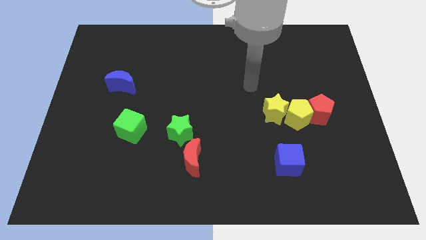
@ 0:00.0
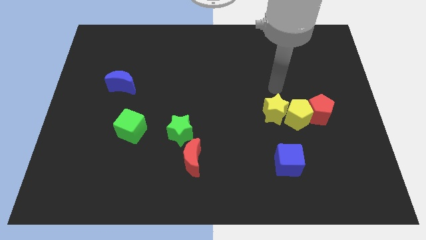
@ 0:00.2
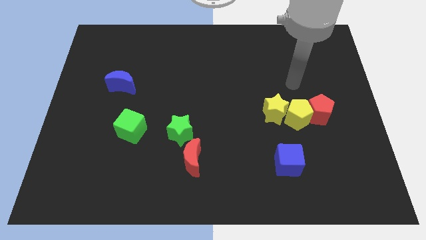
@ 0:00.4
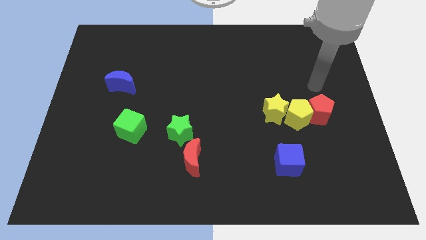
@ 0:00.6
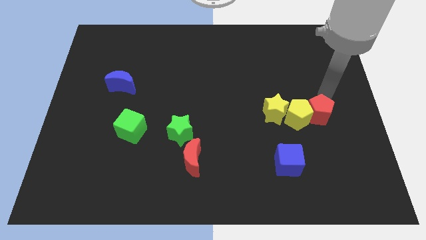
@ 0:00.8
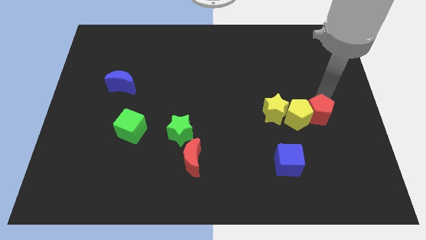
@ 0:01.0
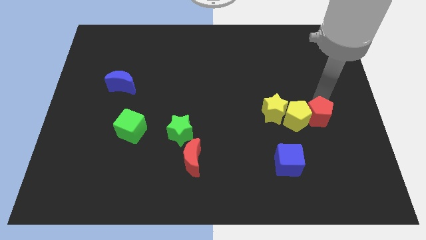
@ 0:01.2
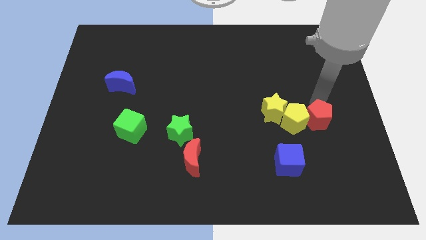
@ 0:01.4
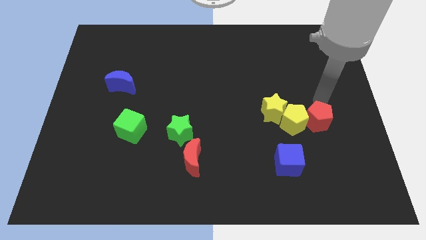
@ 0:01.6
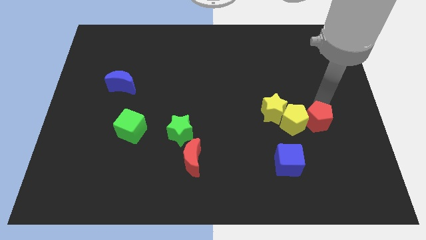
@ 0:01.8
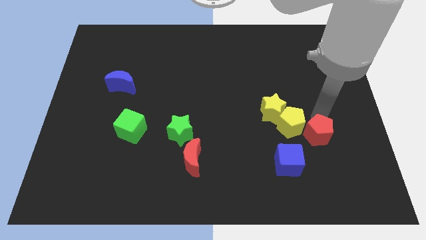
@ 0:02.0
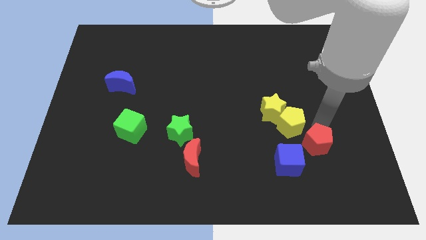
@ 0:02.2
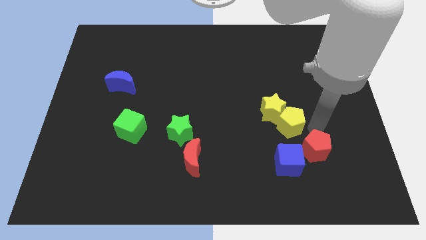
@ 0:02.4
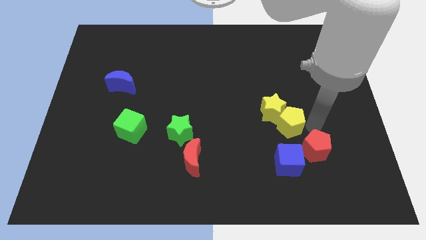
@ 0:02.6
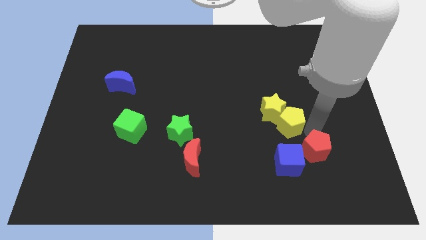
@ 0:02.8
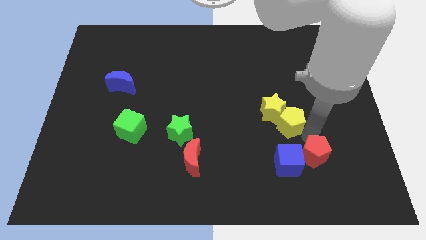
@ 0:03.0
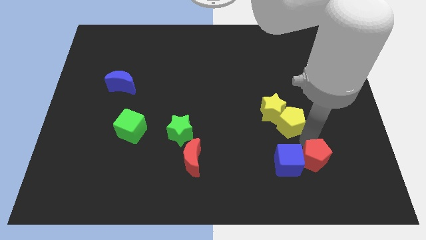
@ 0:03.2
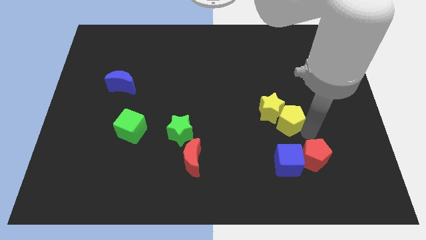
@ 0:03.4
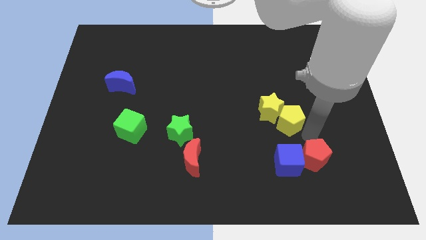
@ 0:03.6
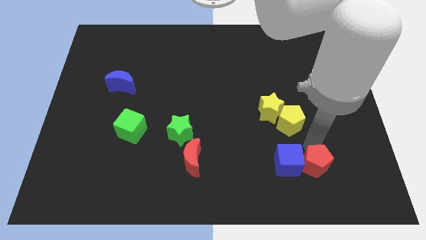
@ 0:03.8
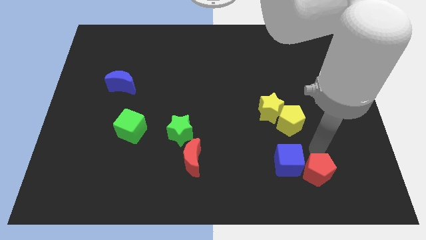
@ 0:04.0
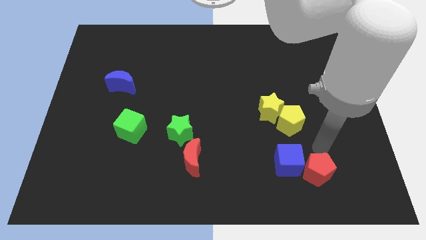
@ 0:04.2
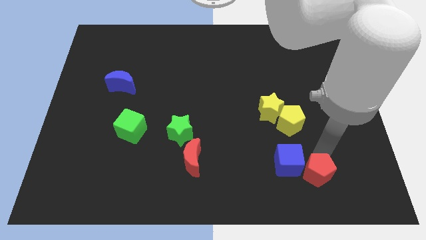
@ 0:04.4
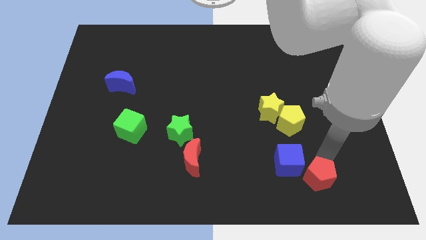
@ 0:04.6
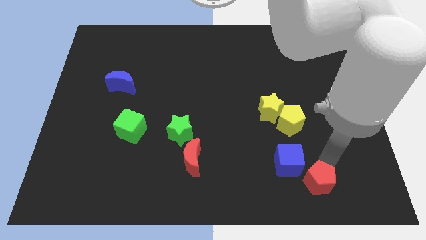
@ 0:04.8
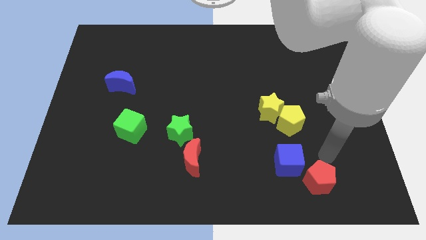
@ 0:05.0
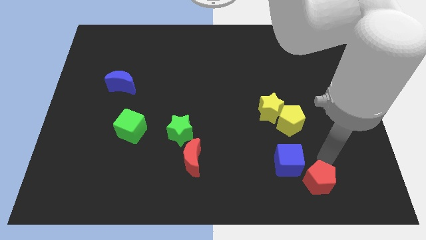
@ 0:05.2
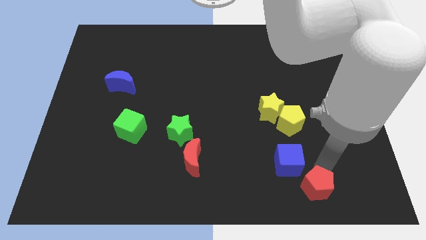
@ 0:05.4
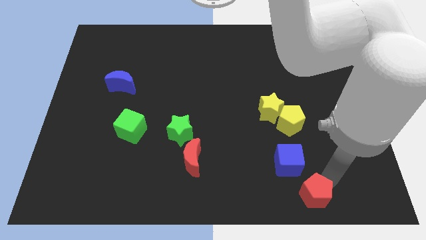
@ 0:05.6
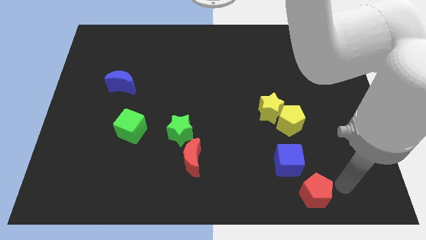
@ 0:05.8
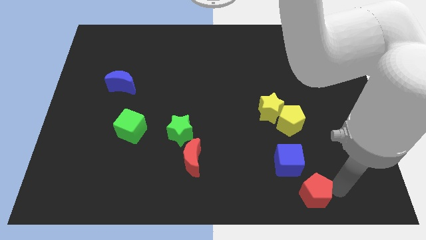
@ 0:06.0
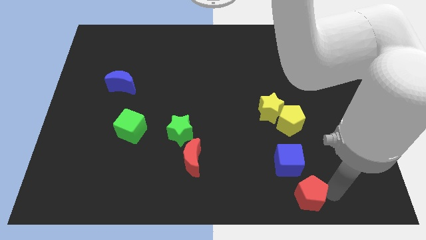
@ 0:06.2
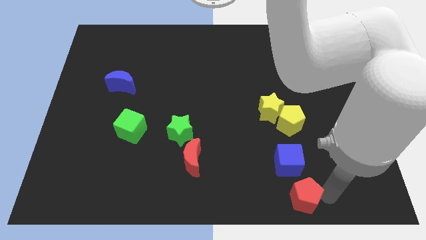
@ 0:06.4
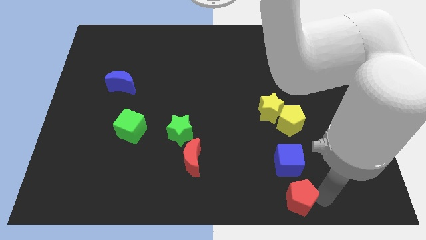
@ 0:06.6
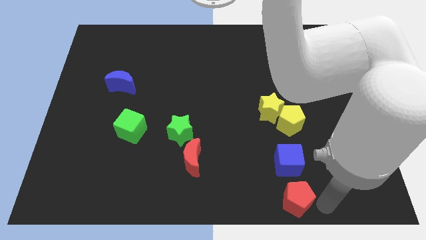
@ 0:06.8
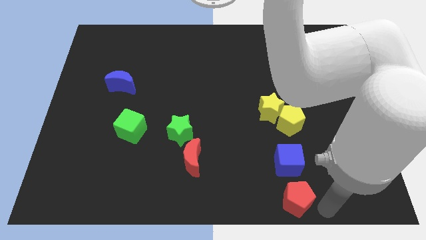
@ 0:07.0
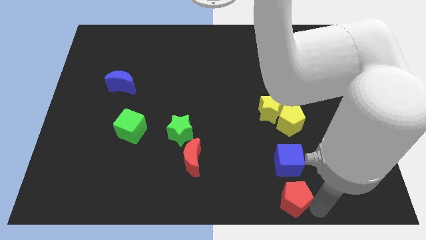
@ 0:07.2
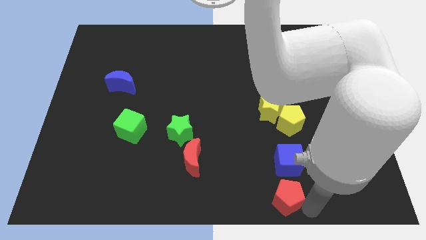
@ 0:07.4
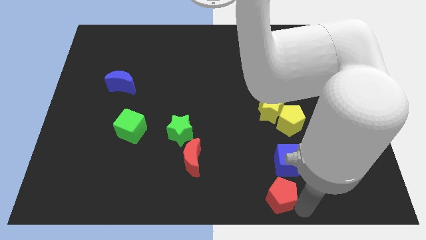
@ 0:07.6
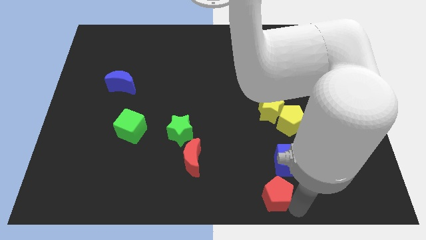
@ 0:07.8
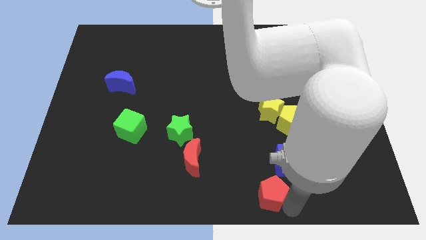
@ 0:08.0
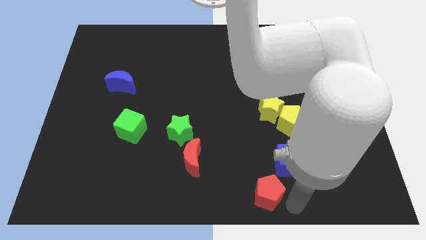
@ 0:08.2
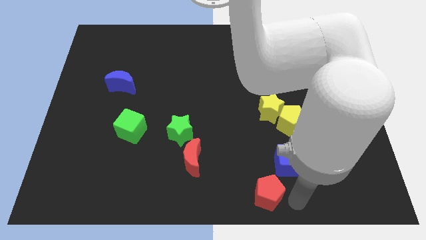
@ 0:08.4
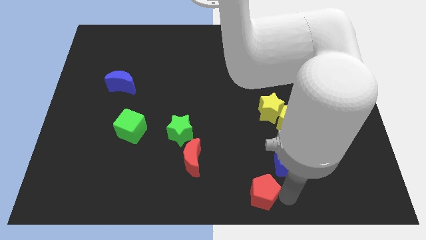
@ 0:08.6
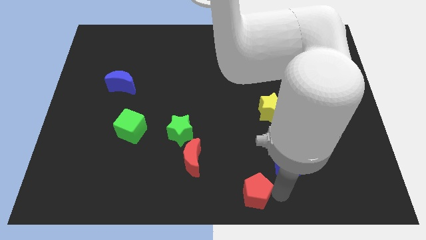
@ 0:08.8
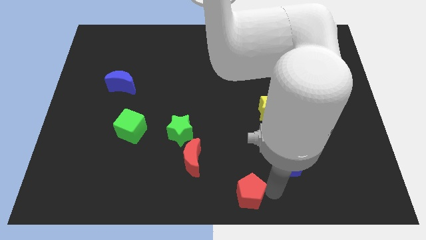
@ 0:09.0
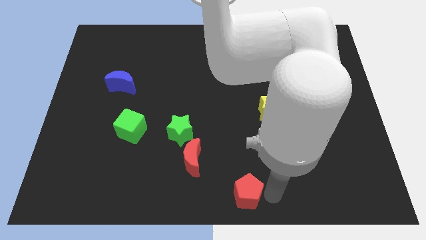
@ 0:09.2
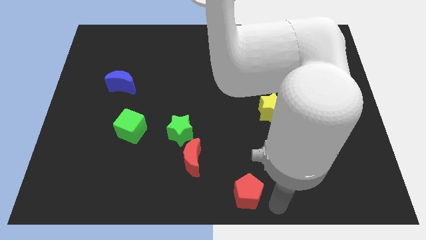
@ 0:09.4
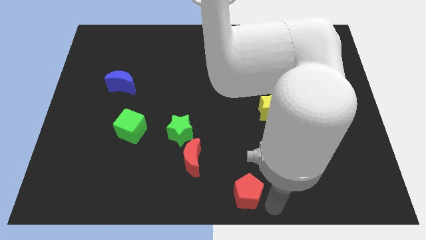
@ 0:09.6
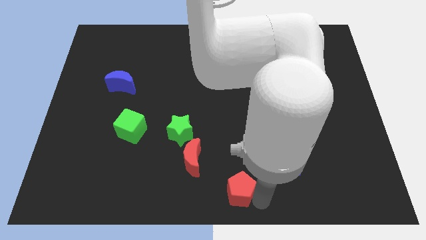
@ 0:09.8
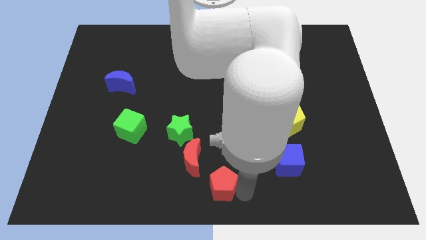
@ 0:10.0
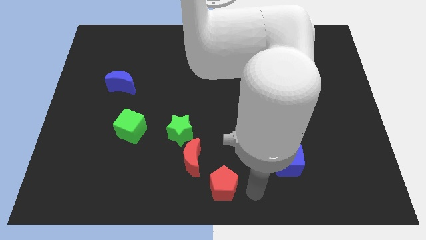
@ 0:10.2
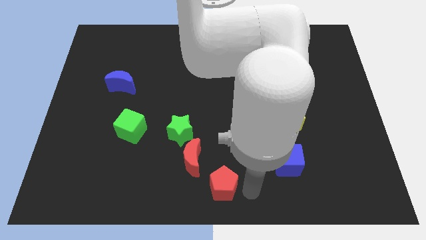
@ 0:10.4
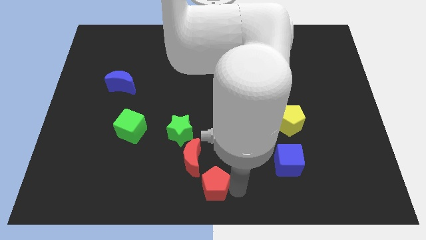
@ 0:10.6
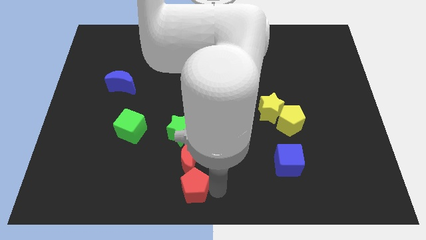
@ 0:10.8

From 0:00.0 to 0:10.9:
slide the red pentagon to the bottom side of the green star

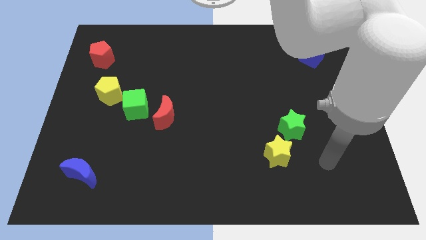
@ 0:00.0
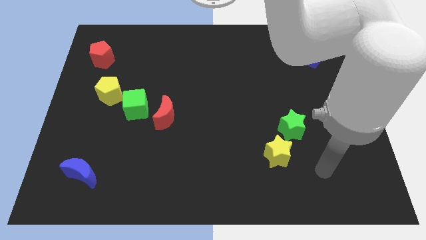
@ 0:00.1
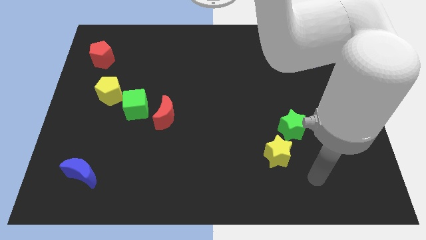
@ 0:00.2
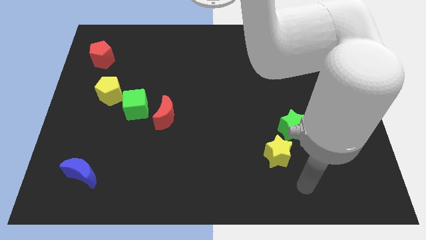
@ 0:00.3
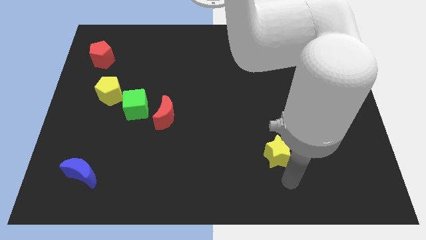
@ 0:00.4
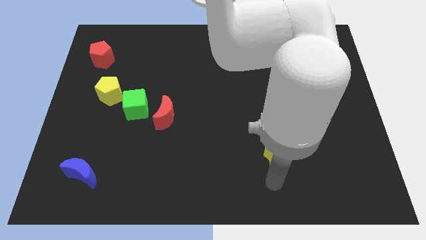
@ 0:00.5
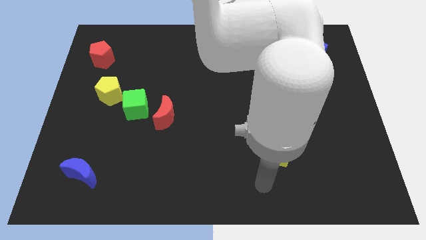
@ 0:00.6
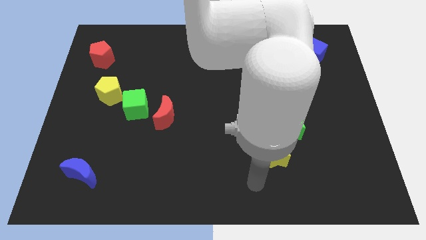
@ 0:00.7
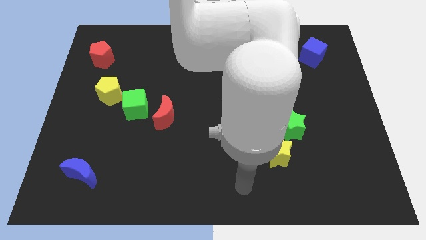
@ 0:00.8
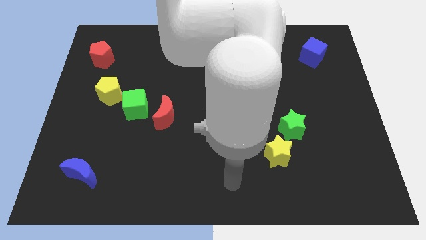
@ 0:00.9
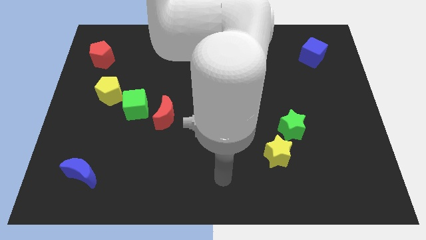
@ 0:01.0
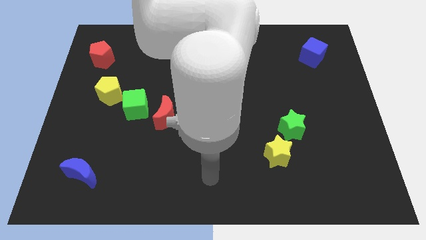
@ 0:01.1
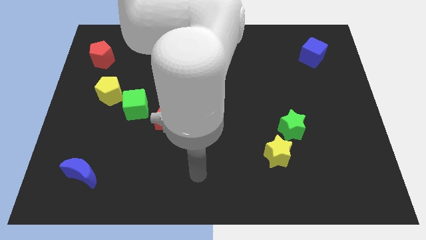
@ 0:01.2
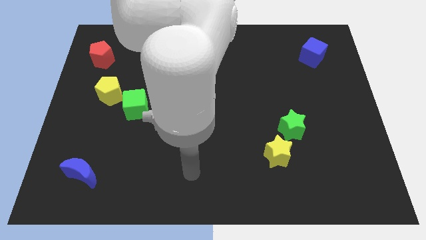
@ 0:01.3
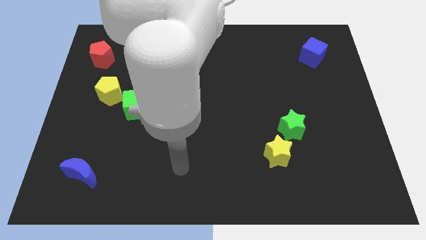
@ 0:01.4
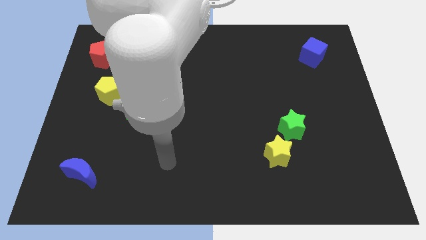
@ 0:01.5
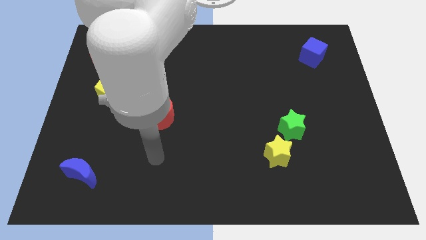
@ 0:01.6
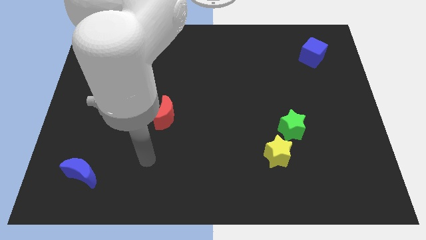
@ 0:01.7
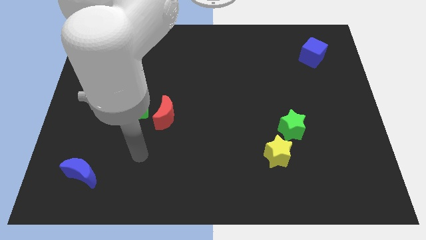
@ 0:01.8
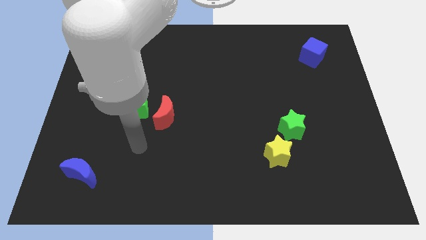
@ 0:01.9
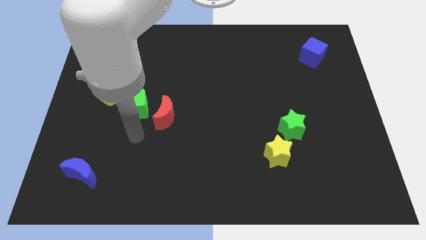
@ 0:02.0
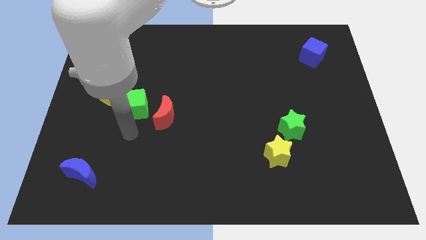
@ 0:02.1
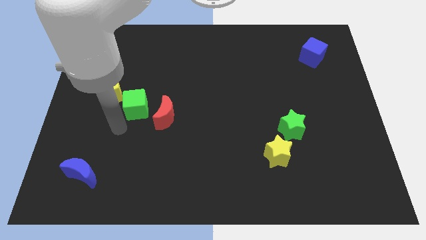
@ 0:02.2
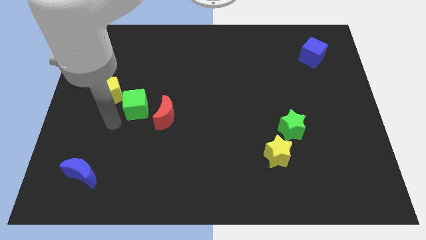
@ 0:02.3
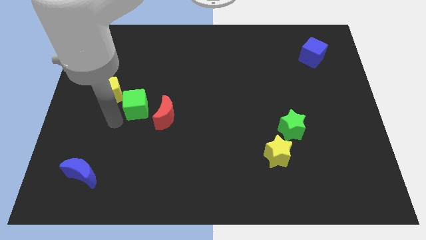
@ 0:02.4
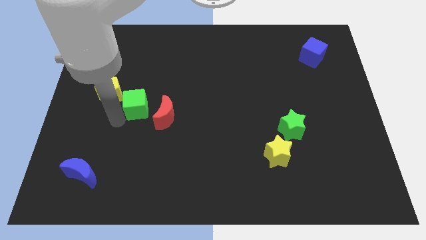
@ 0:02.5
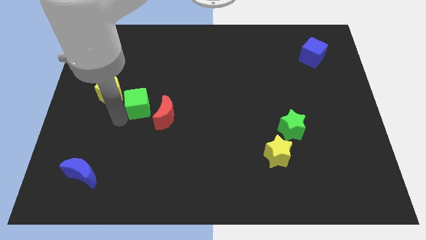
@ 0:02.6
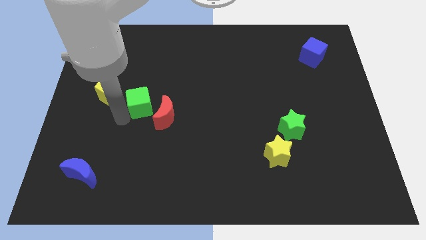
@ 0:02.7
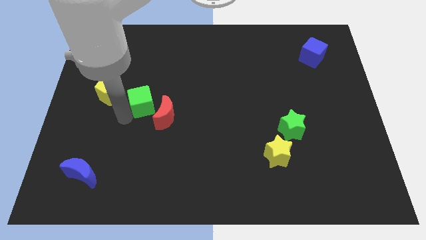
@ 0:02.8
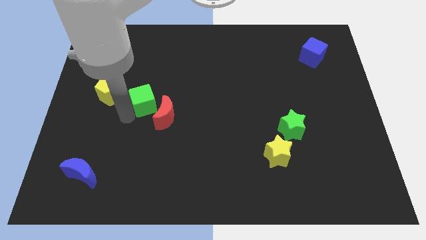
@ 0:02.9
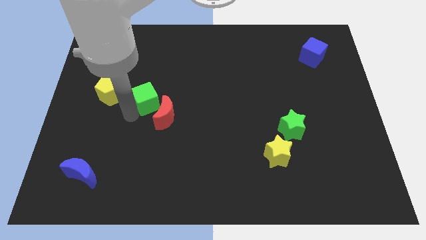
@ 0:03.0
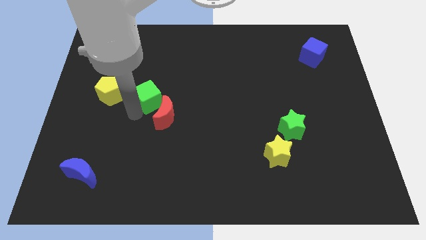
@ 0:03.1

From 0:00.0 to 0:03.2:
slide the green cube to the top of the red moon
